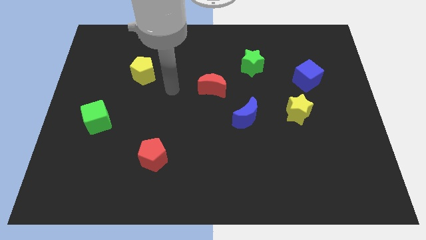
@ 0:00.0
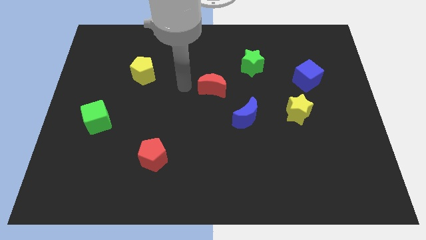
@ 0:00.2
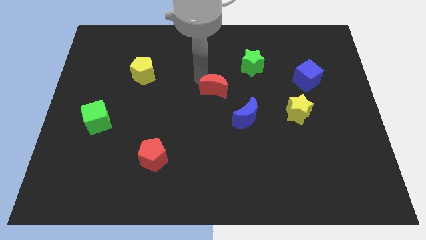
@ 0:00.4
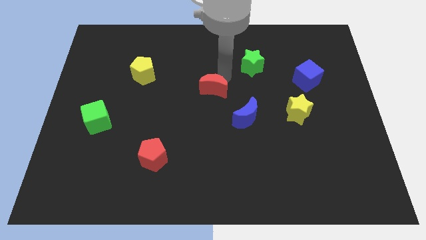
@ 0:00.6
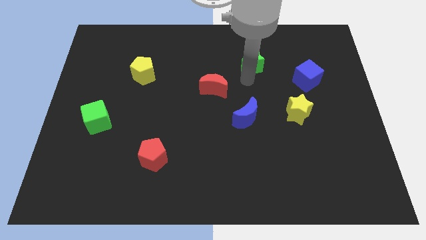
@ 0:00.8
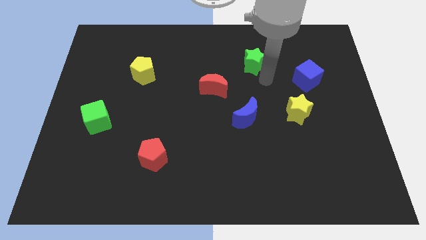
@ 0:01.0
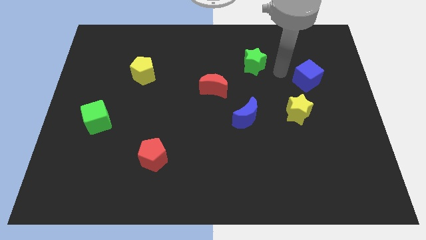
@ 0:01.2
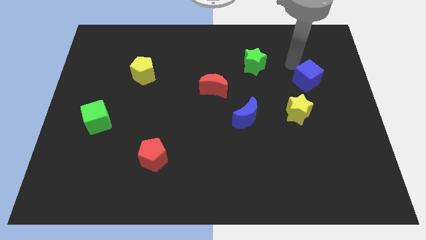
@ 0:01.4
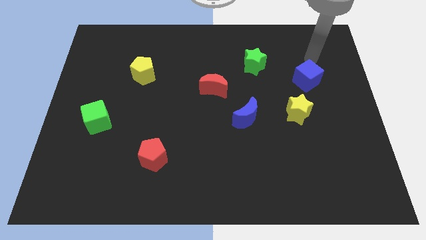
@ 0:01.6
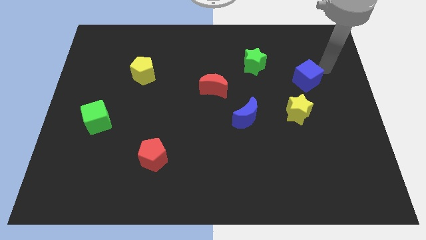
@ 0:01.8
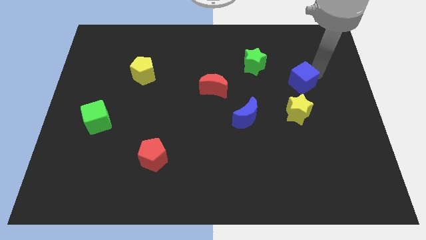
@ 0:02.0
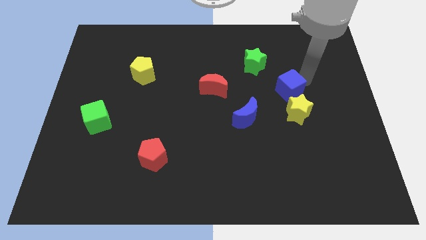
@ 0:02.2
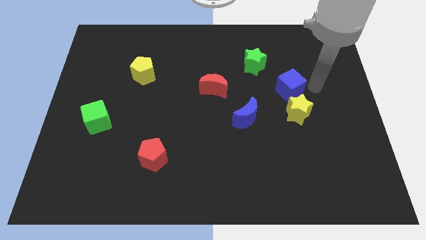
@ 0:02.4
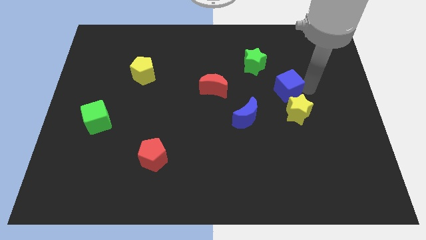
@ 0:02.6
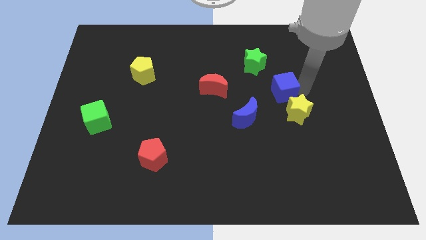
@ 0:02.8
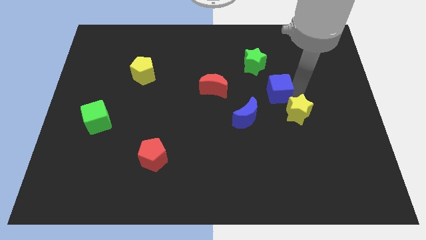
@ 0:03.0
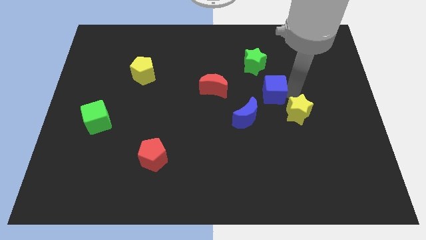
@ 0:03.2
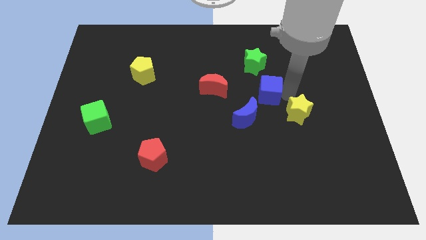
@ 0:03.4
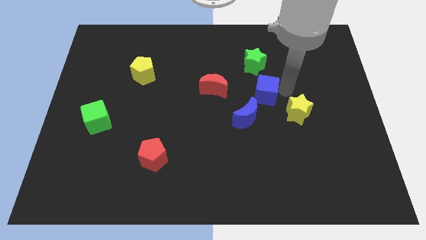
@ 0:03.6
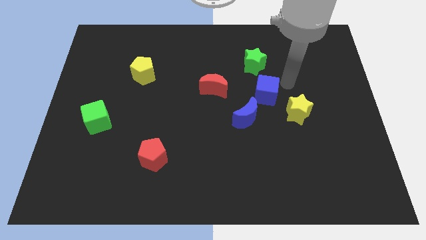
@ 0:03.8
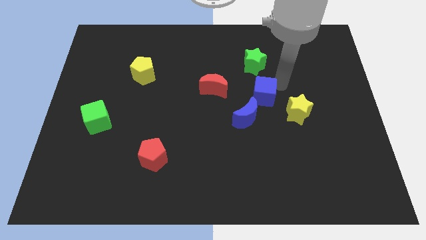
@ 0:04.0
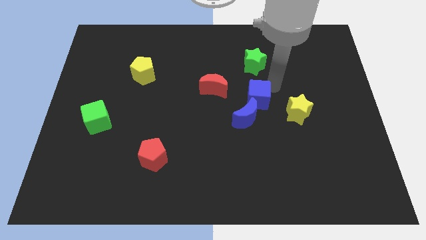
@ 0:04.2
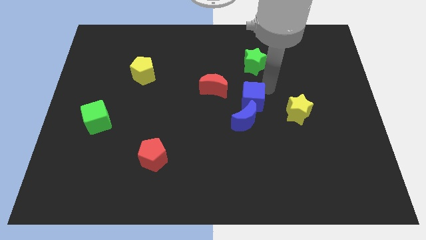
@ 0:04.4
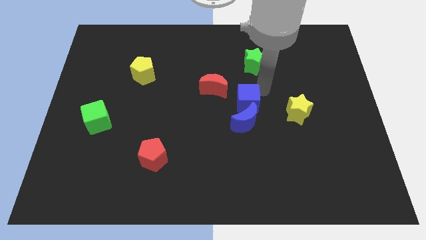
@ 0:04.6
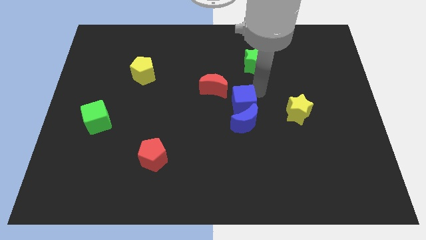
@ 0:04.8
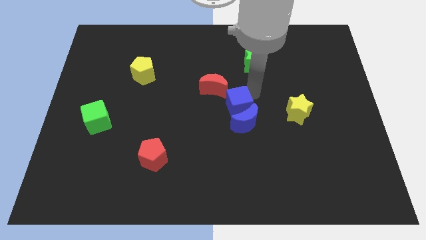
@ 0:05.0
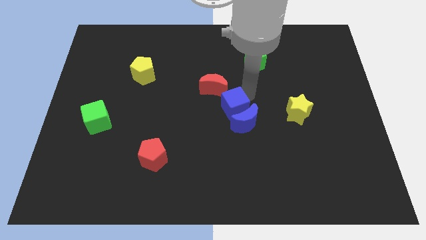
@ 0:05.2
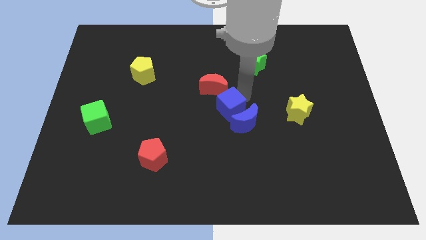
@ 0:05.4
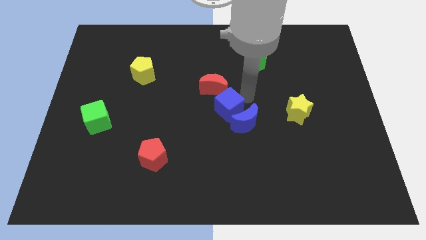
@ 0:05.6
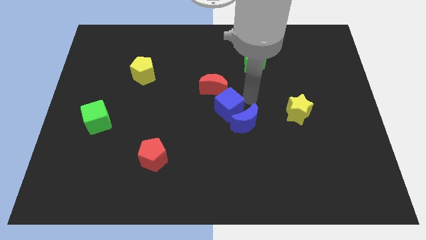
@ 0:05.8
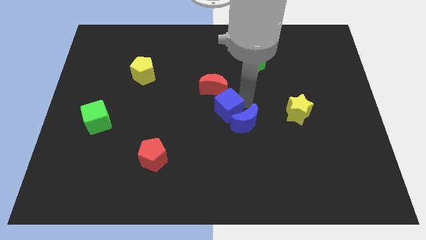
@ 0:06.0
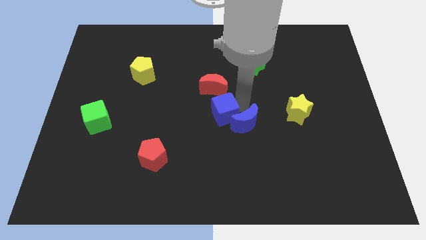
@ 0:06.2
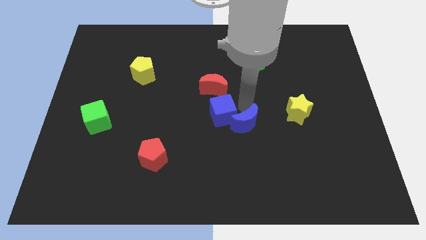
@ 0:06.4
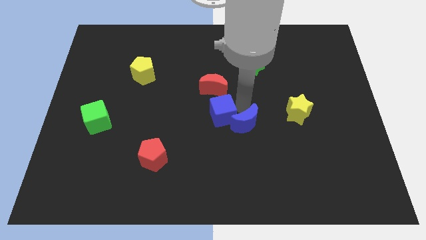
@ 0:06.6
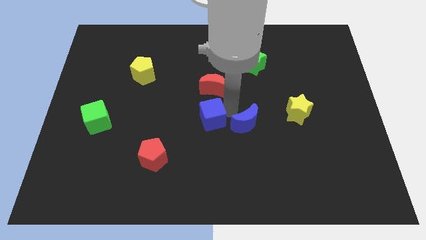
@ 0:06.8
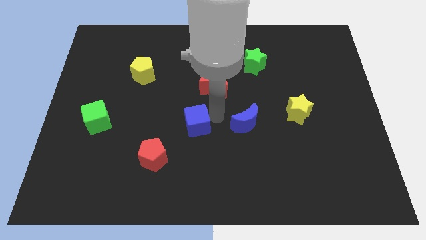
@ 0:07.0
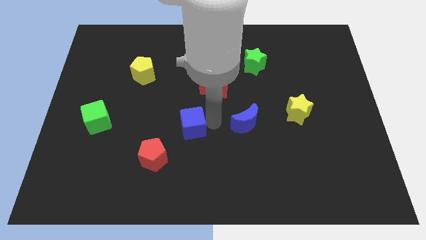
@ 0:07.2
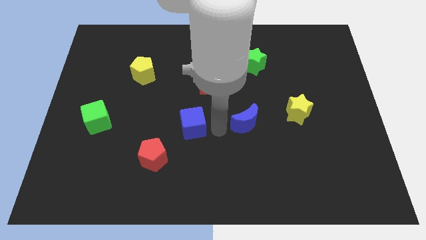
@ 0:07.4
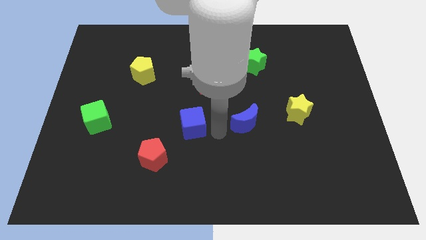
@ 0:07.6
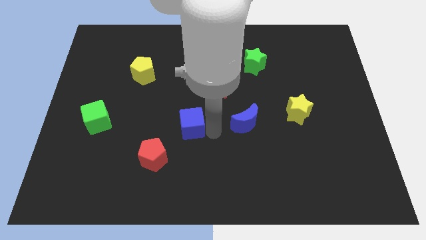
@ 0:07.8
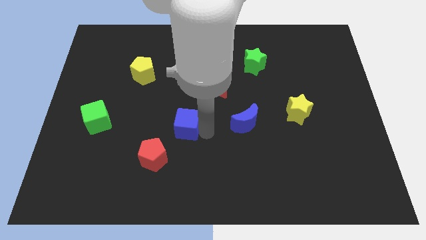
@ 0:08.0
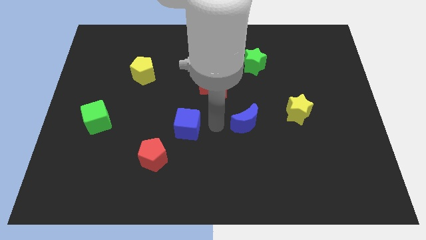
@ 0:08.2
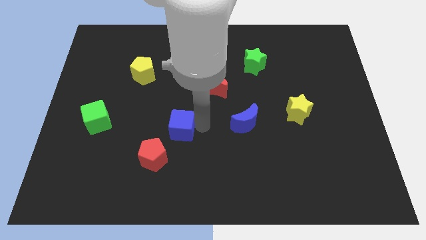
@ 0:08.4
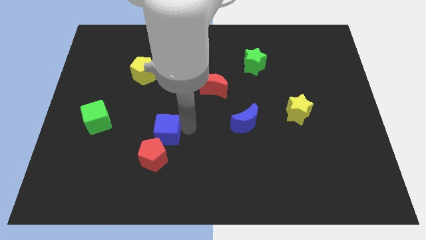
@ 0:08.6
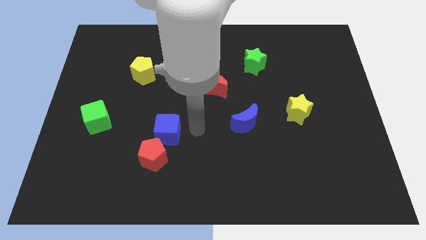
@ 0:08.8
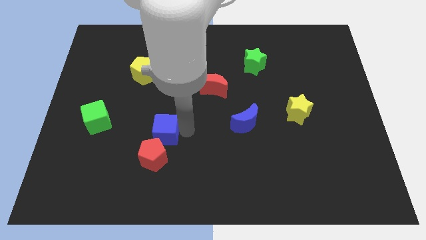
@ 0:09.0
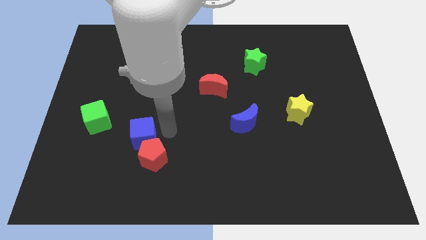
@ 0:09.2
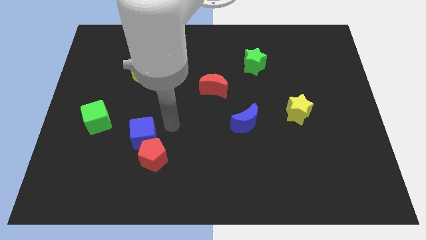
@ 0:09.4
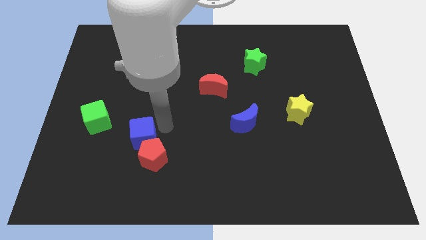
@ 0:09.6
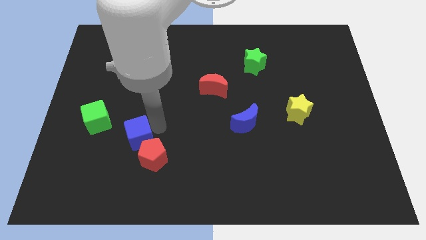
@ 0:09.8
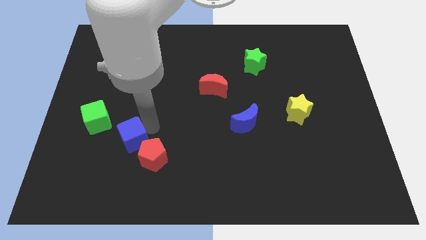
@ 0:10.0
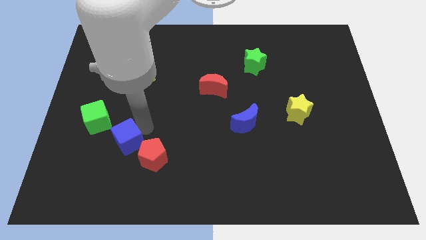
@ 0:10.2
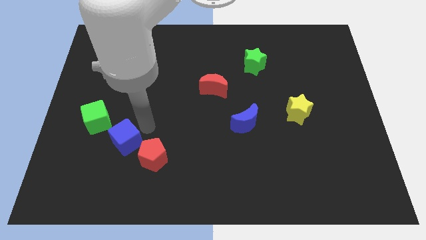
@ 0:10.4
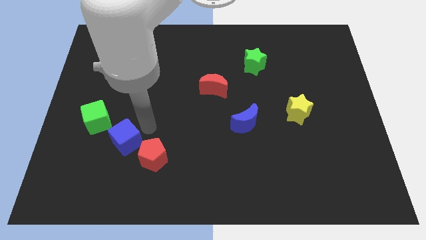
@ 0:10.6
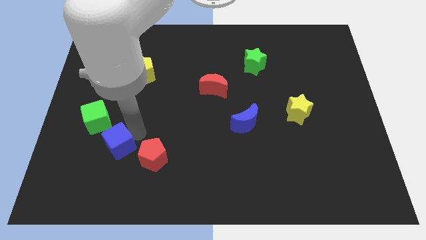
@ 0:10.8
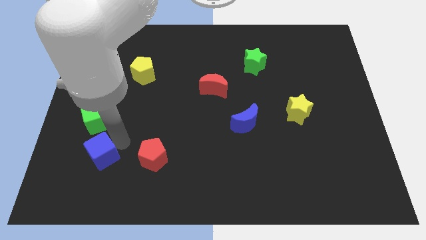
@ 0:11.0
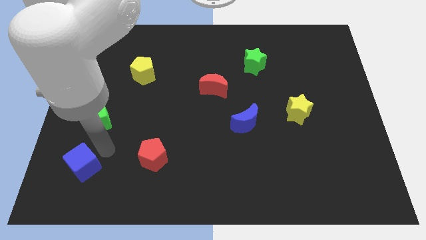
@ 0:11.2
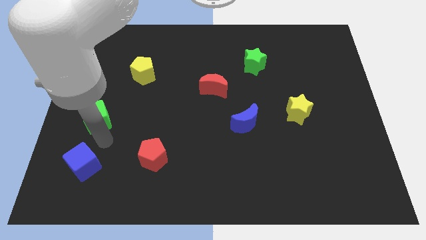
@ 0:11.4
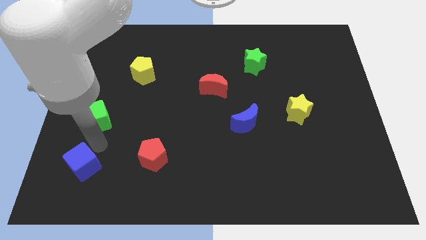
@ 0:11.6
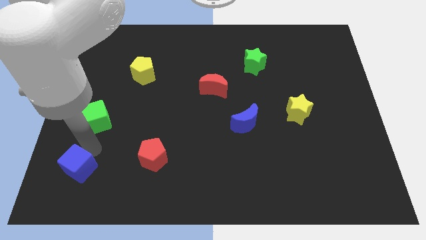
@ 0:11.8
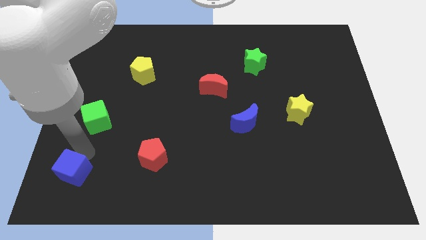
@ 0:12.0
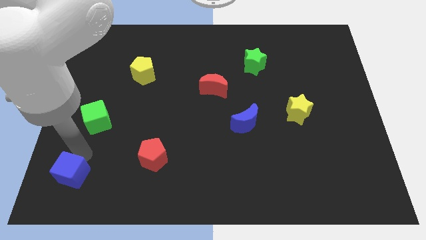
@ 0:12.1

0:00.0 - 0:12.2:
slide the blue cube to the lower left corner
